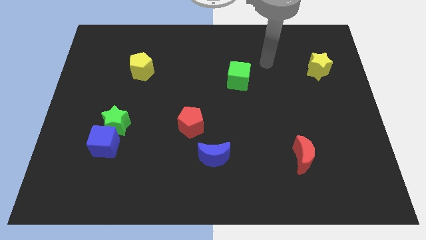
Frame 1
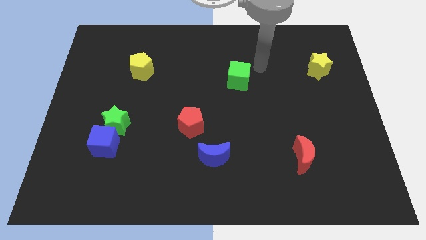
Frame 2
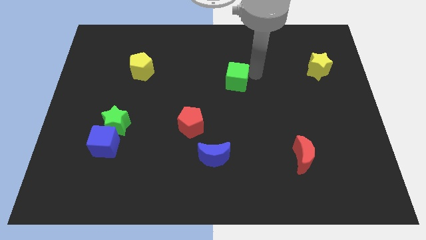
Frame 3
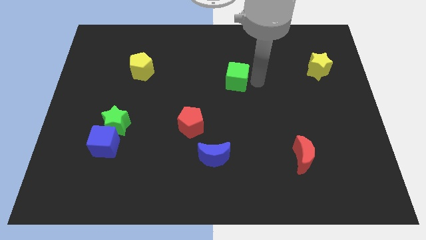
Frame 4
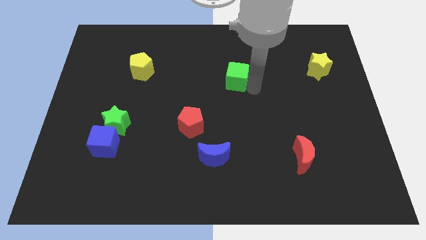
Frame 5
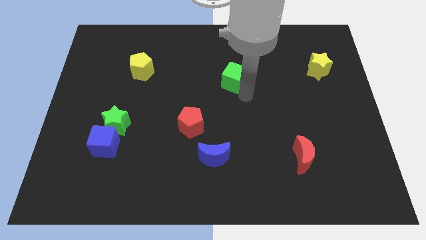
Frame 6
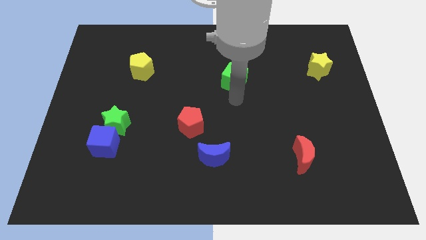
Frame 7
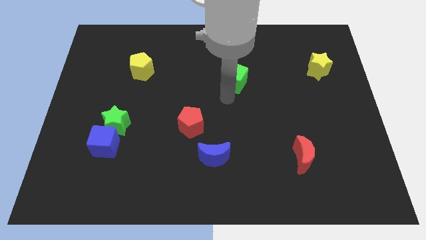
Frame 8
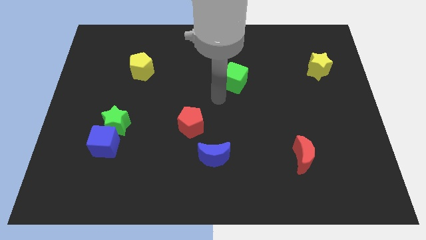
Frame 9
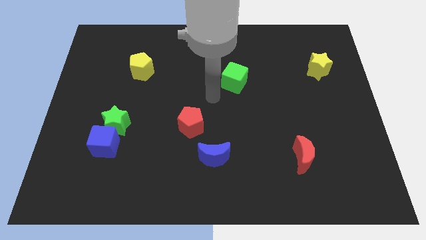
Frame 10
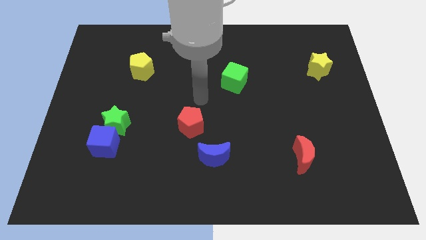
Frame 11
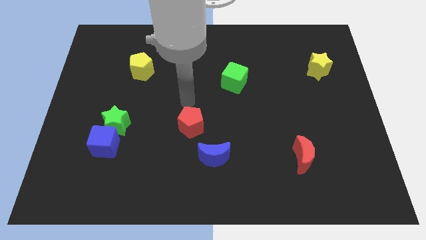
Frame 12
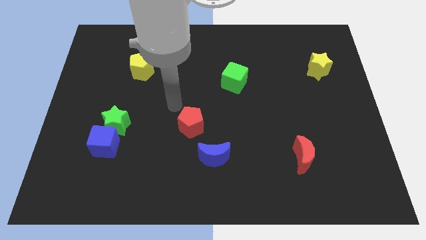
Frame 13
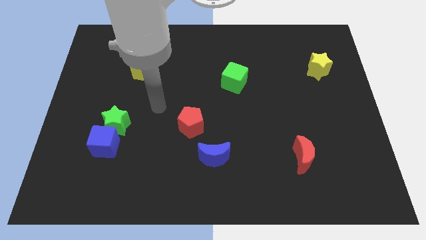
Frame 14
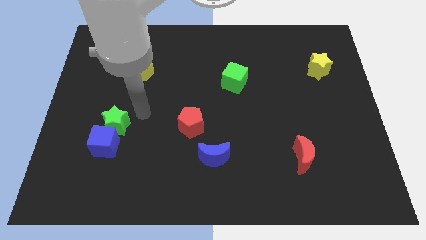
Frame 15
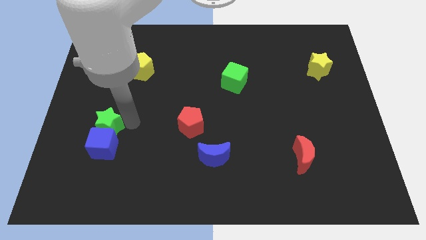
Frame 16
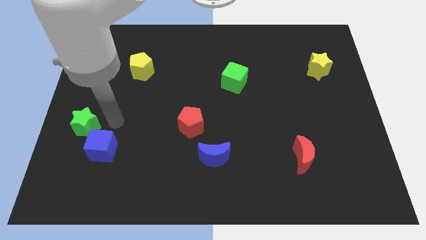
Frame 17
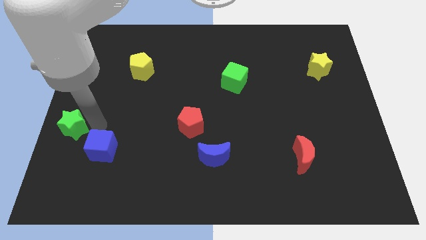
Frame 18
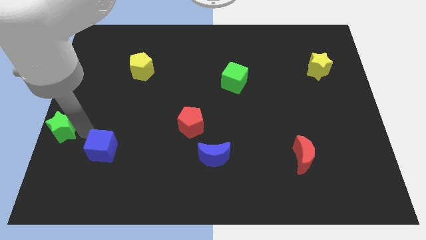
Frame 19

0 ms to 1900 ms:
separate the blue cube from the green star

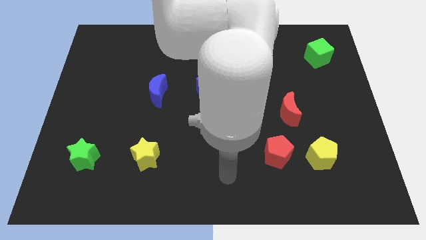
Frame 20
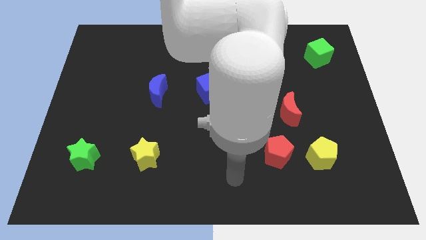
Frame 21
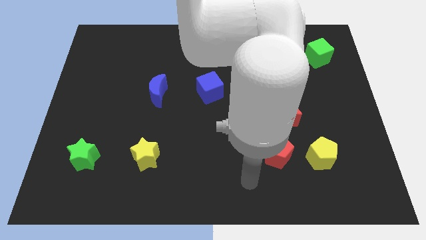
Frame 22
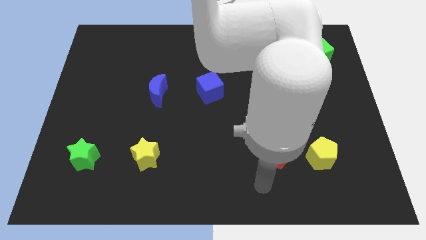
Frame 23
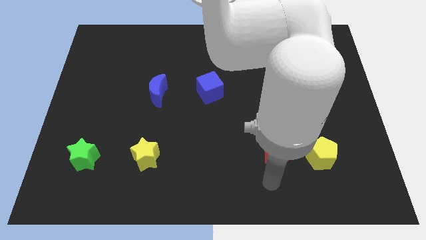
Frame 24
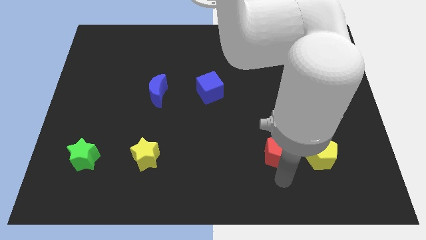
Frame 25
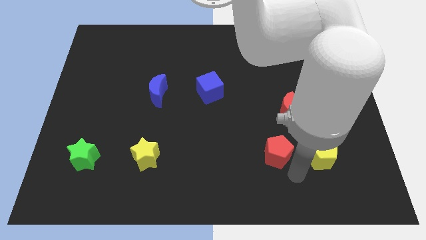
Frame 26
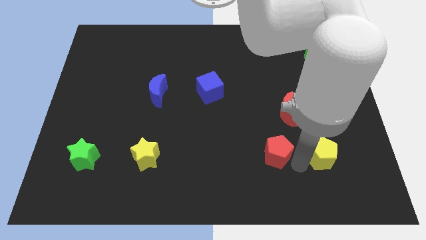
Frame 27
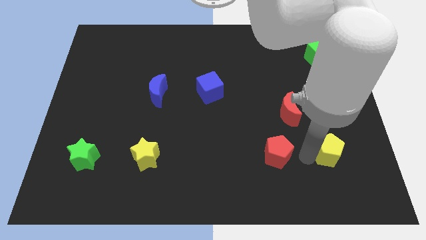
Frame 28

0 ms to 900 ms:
pull the red pentagon apart from the yellow pentagon

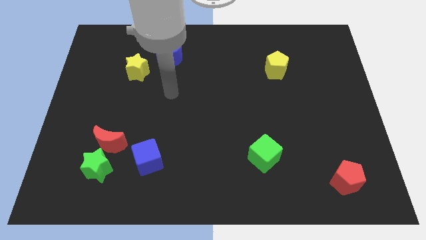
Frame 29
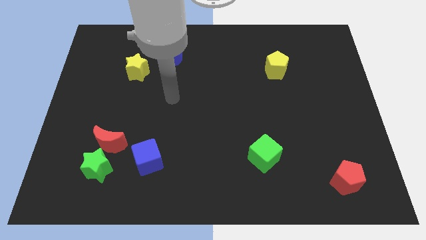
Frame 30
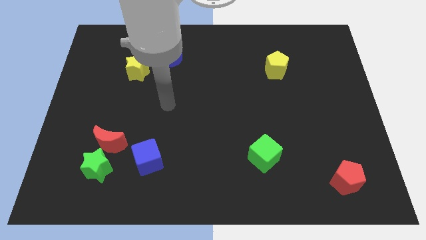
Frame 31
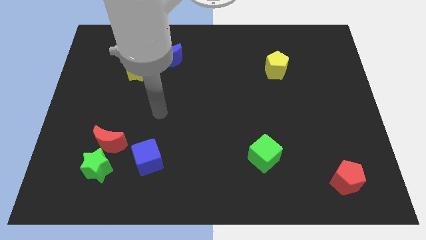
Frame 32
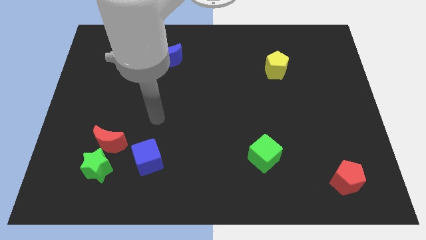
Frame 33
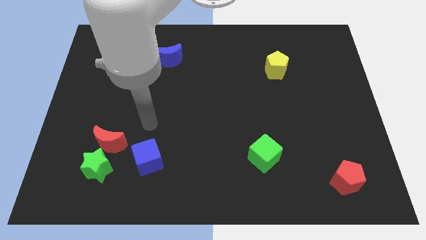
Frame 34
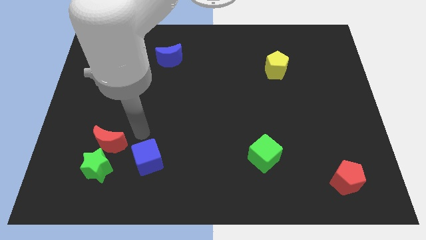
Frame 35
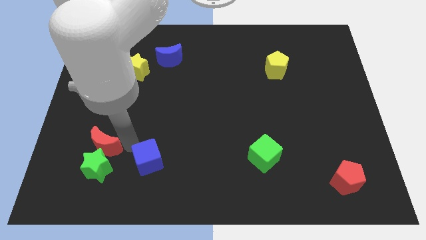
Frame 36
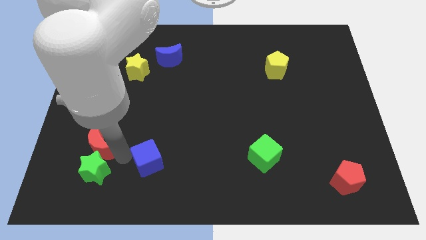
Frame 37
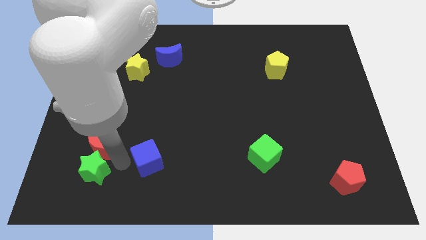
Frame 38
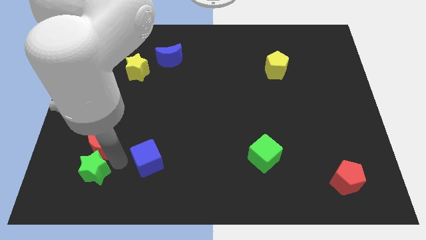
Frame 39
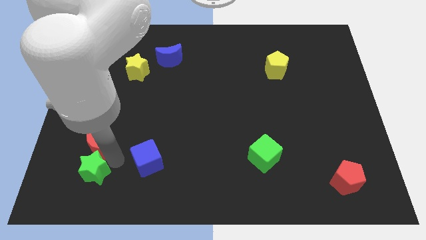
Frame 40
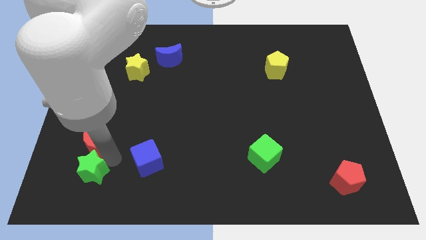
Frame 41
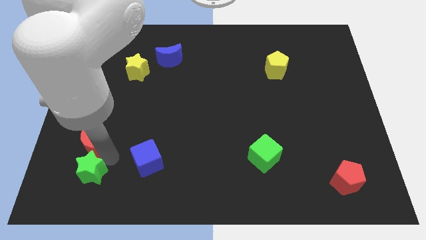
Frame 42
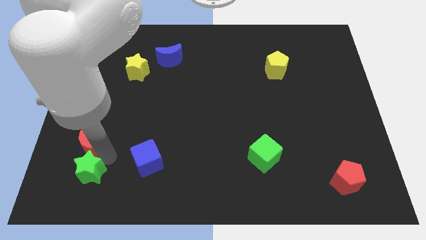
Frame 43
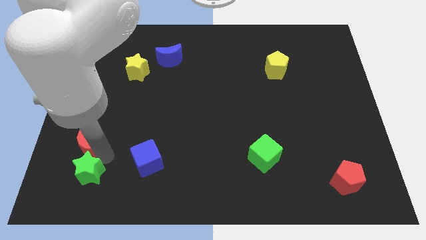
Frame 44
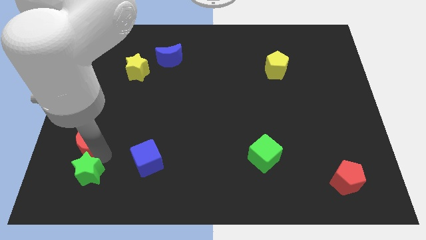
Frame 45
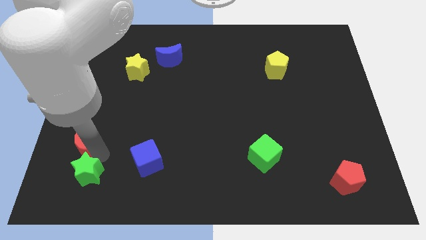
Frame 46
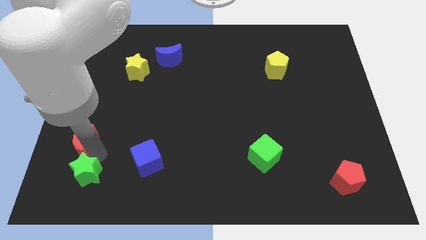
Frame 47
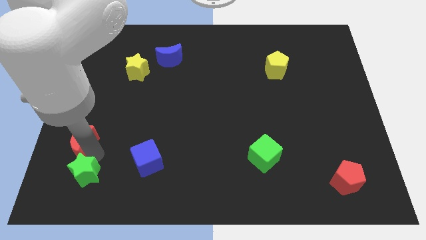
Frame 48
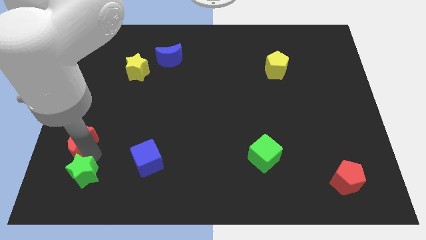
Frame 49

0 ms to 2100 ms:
separate the red moon from the green star and blue cube

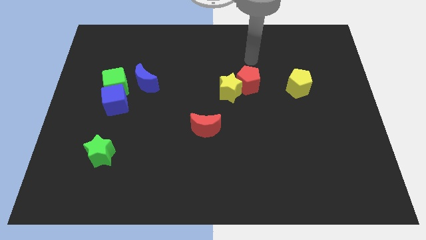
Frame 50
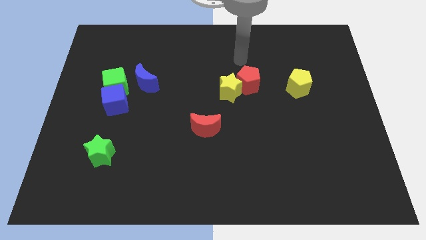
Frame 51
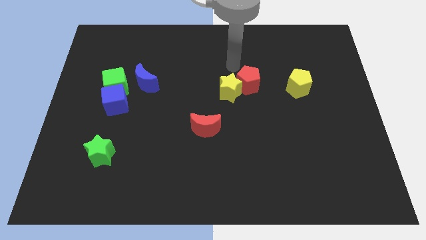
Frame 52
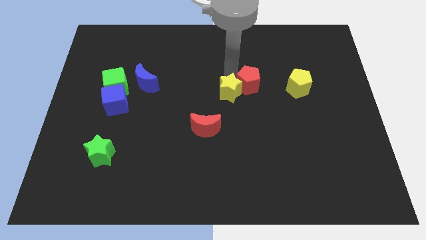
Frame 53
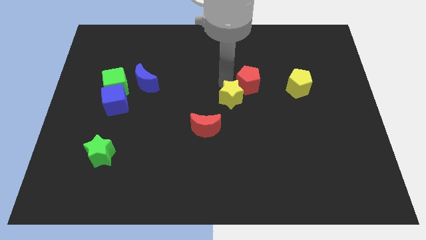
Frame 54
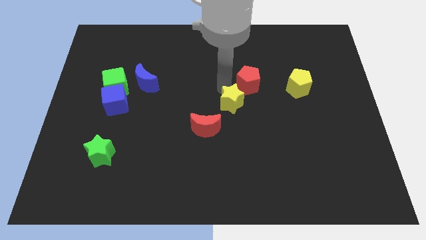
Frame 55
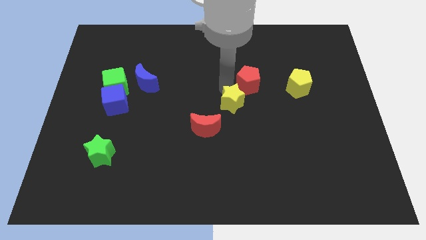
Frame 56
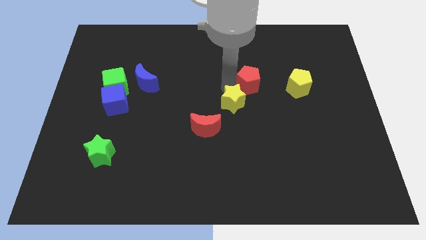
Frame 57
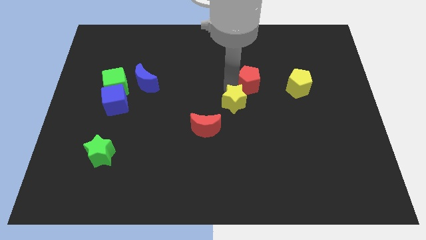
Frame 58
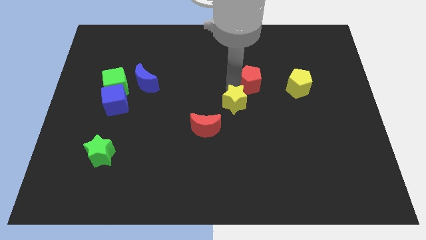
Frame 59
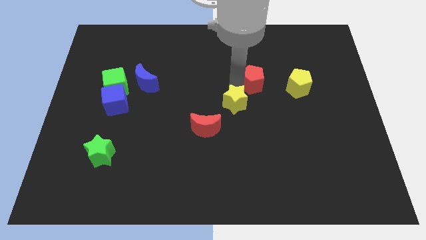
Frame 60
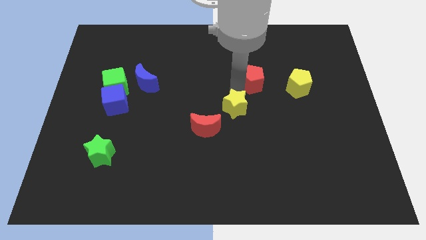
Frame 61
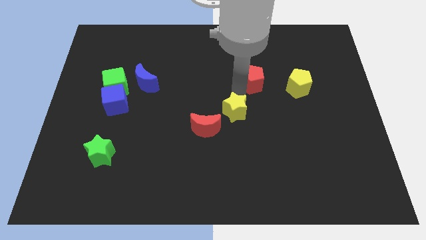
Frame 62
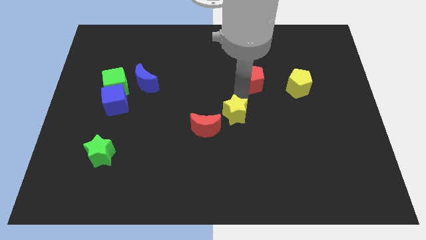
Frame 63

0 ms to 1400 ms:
separate the red pentagon from the yellow star

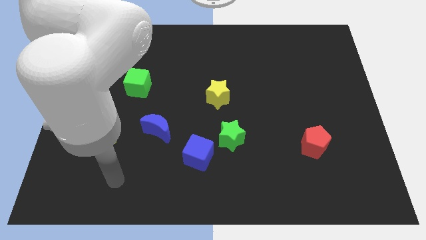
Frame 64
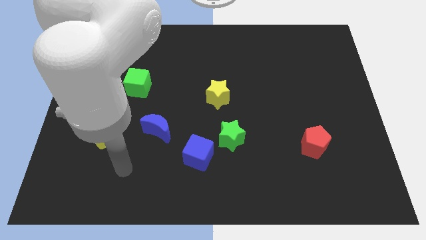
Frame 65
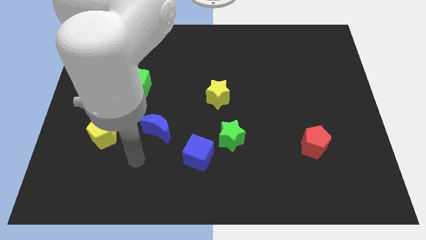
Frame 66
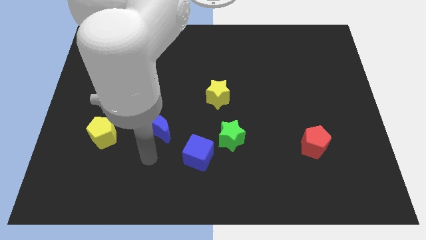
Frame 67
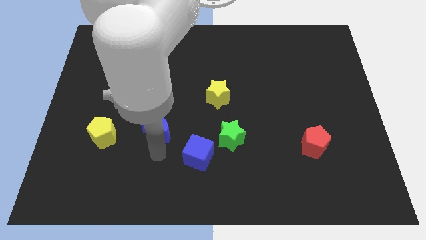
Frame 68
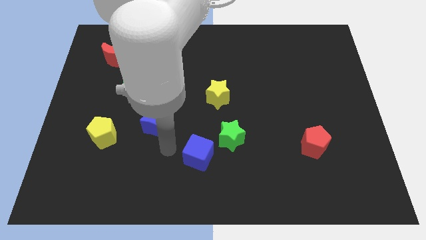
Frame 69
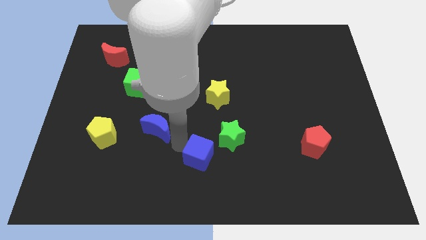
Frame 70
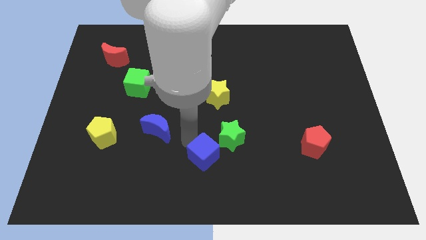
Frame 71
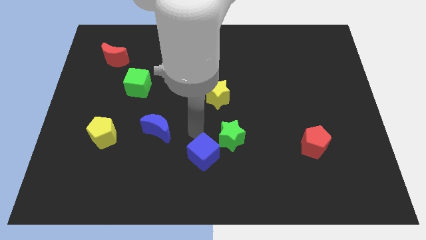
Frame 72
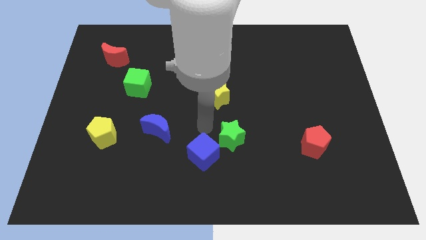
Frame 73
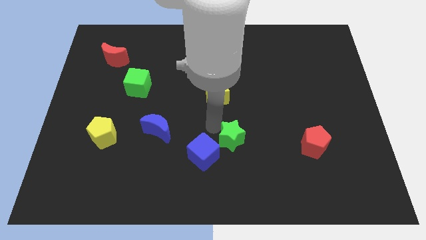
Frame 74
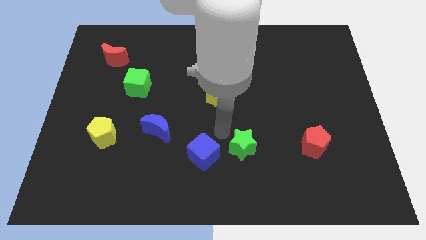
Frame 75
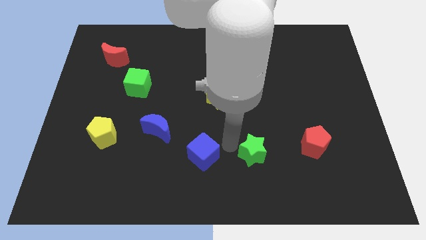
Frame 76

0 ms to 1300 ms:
move the blue cube away from the green star

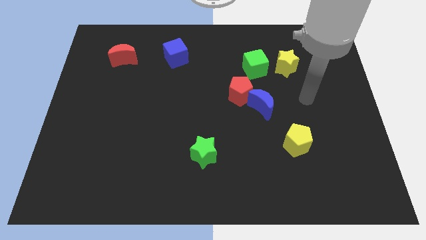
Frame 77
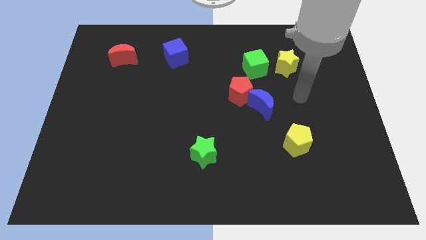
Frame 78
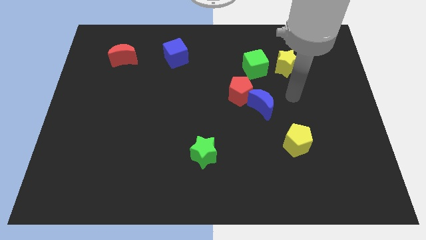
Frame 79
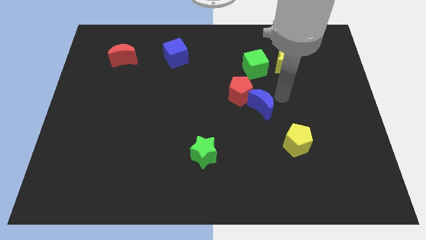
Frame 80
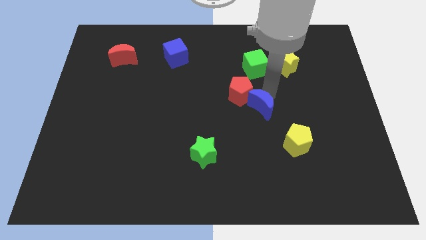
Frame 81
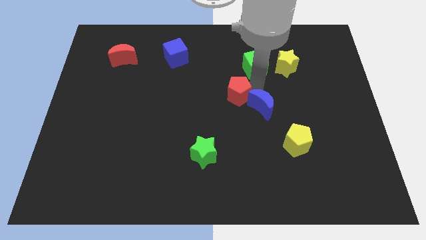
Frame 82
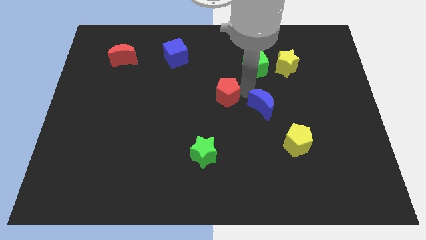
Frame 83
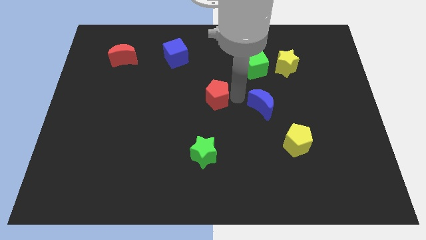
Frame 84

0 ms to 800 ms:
separate the blue moon from the red pentagon

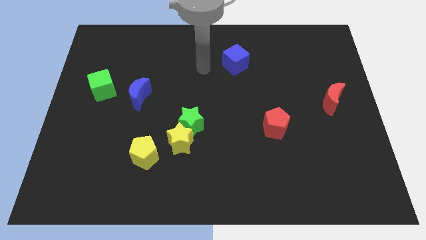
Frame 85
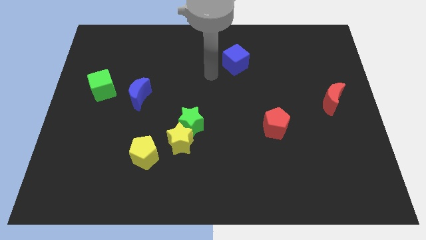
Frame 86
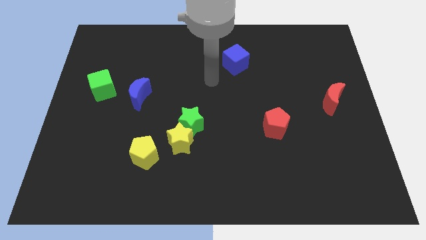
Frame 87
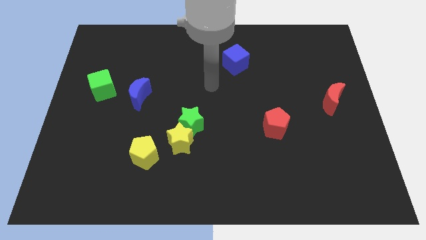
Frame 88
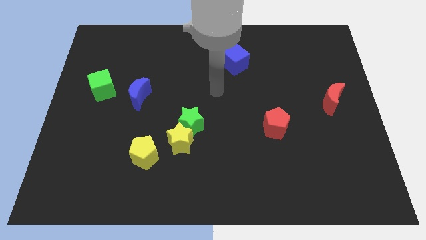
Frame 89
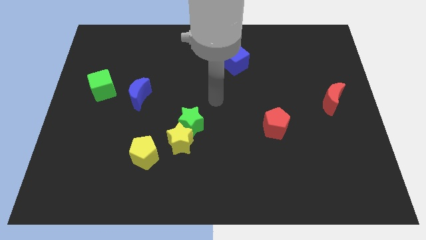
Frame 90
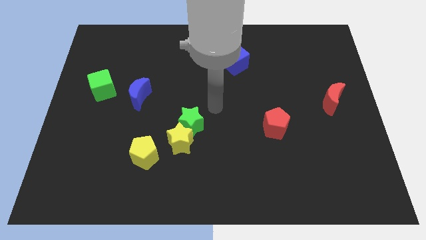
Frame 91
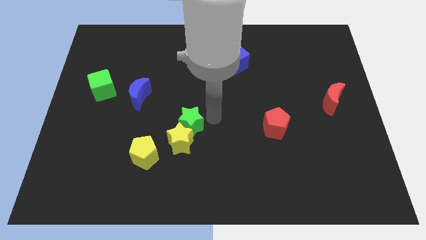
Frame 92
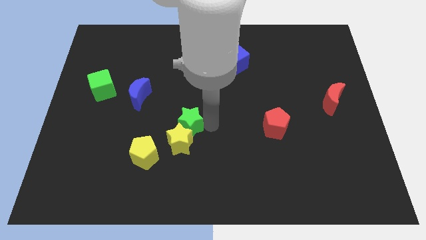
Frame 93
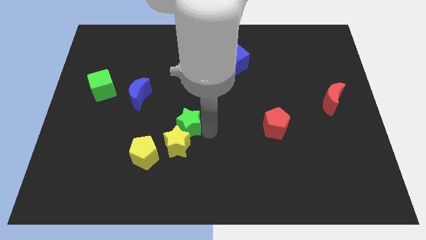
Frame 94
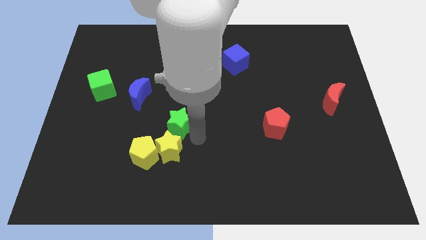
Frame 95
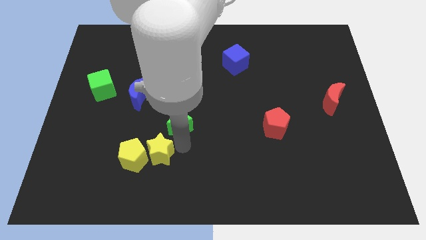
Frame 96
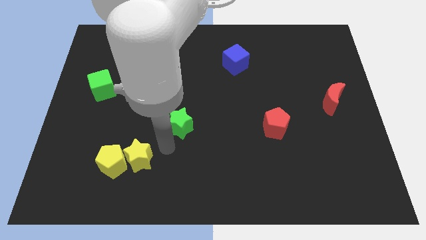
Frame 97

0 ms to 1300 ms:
separate the green star from the yellow star
